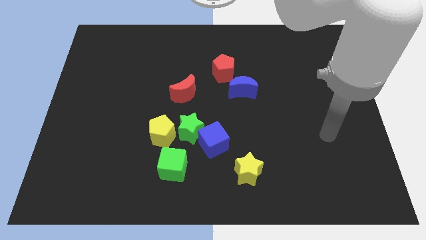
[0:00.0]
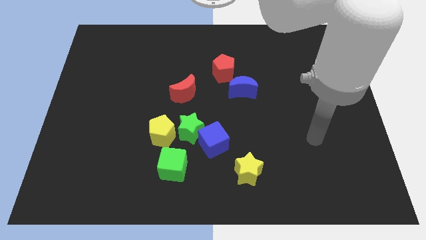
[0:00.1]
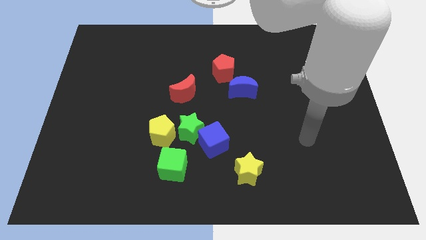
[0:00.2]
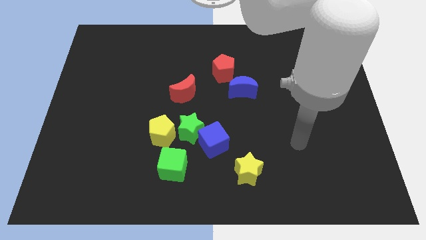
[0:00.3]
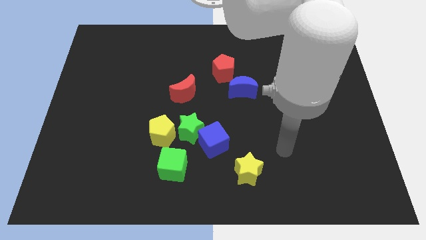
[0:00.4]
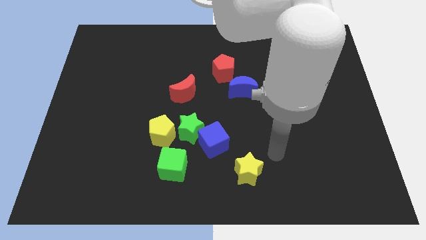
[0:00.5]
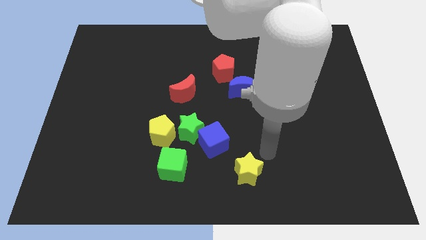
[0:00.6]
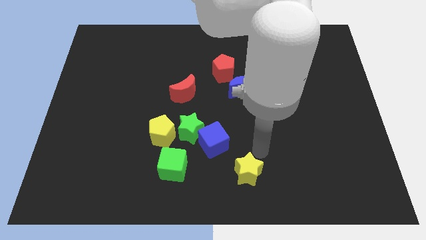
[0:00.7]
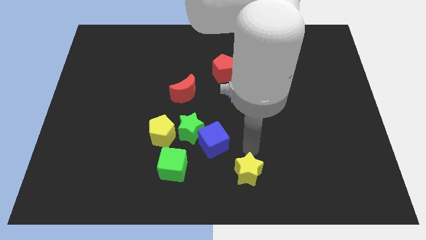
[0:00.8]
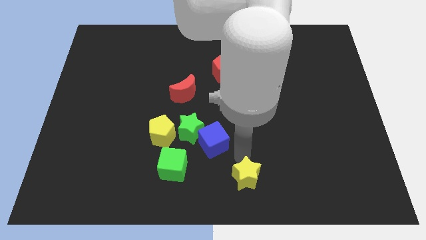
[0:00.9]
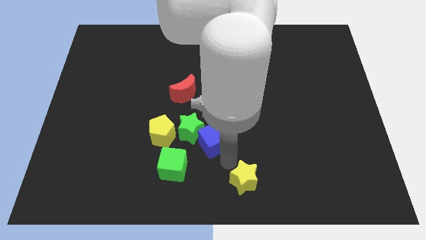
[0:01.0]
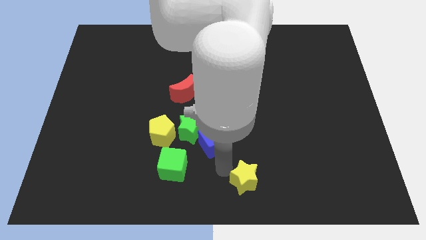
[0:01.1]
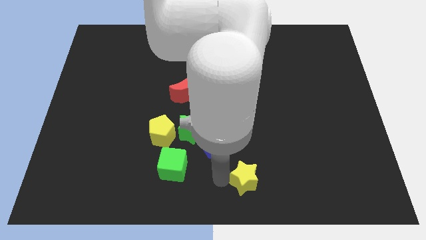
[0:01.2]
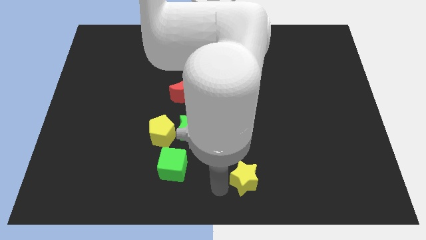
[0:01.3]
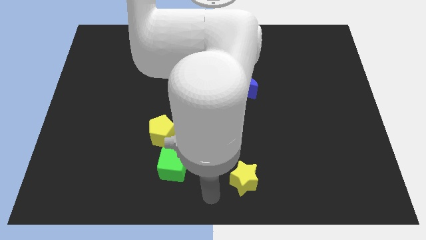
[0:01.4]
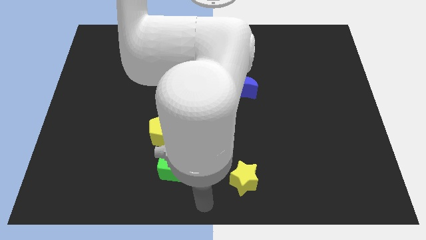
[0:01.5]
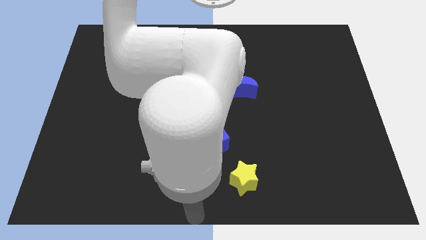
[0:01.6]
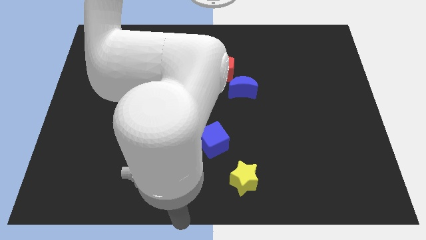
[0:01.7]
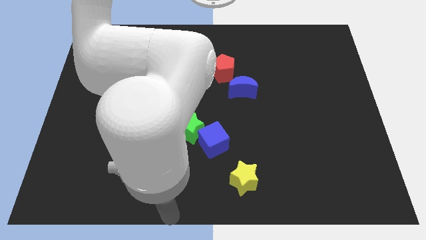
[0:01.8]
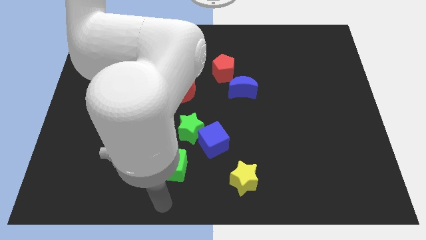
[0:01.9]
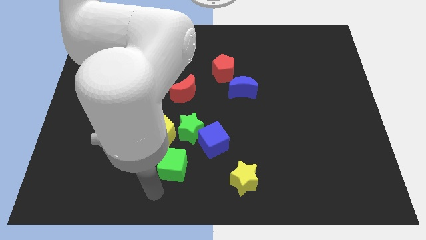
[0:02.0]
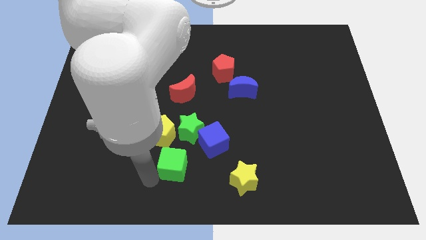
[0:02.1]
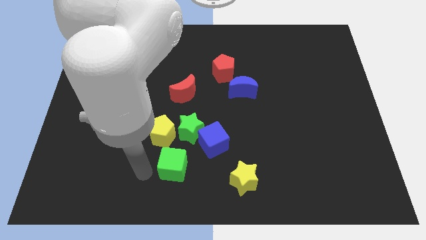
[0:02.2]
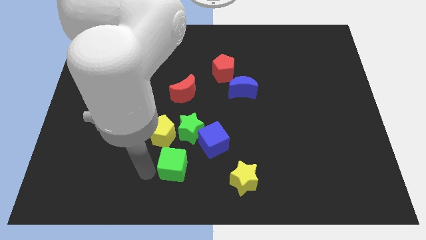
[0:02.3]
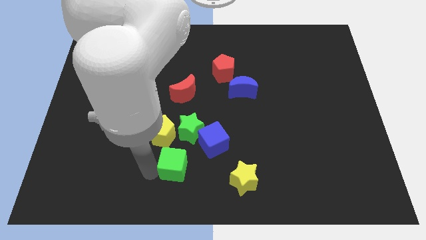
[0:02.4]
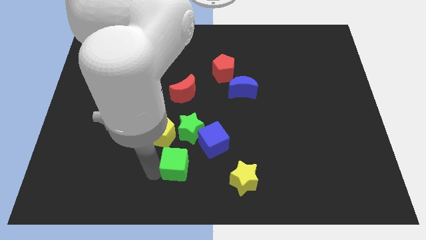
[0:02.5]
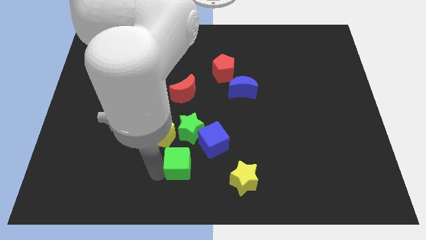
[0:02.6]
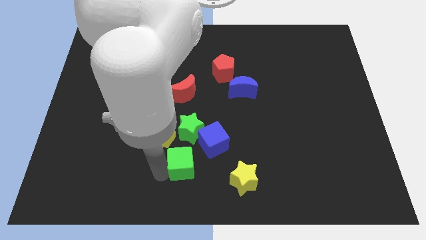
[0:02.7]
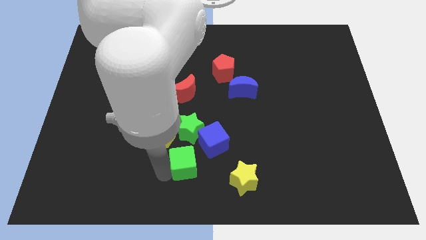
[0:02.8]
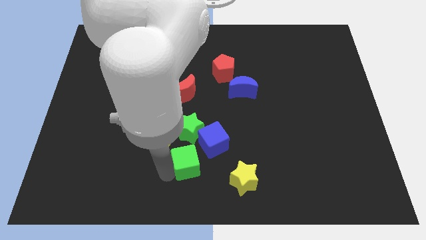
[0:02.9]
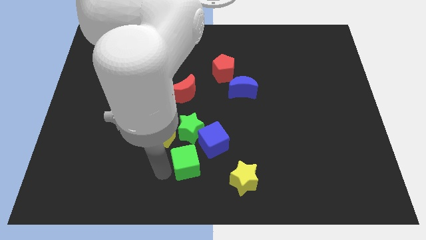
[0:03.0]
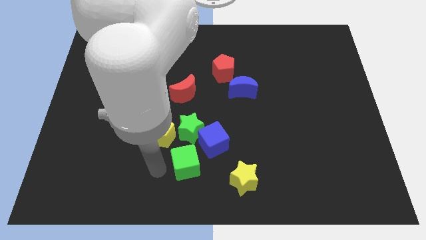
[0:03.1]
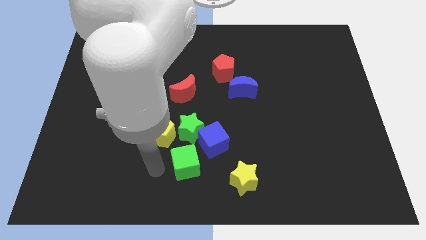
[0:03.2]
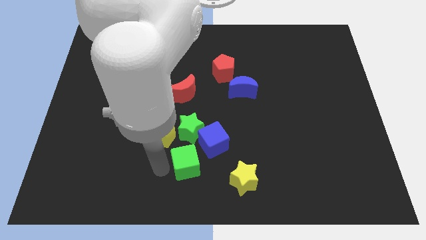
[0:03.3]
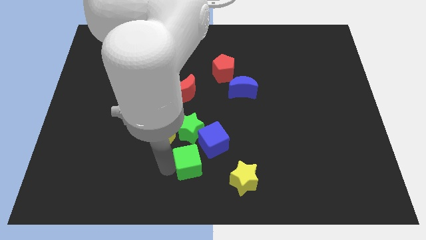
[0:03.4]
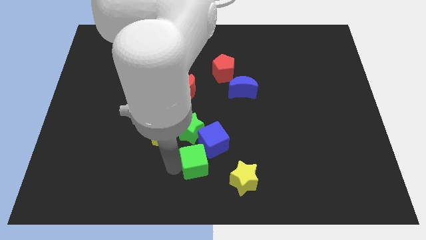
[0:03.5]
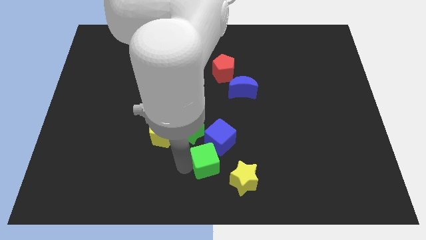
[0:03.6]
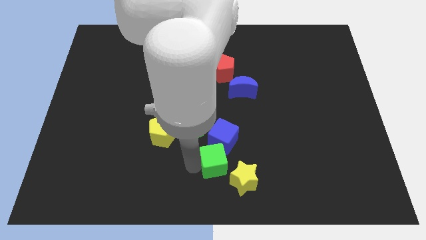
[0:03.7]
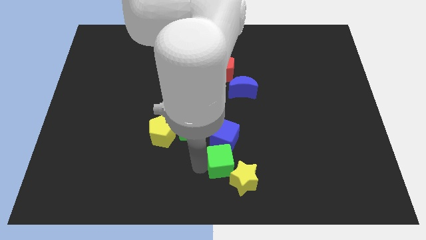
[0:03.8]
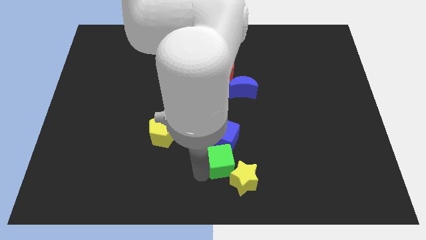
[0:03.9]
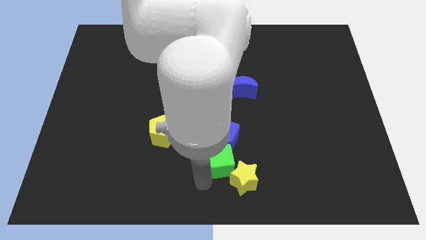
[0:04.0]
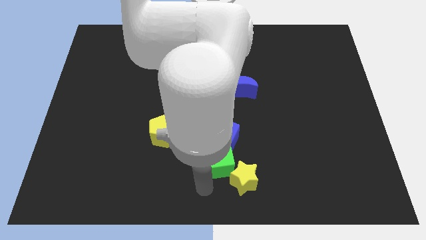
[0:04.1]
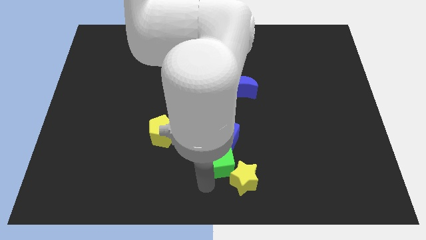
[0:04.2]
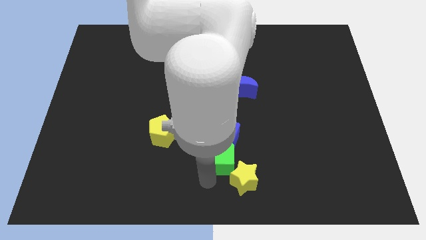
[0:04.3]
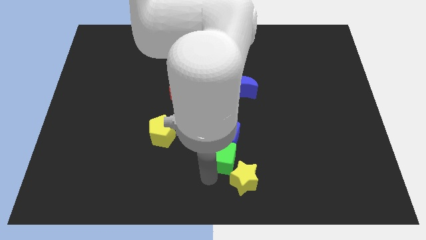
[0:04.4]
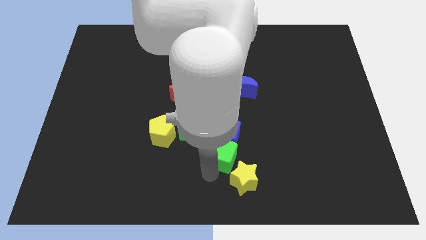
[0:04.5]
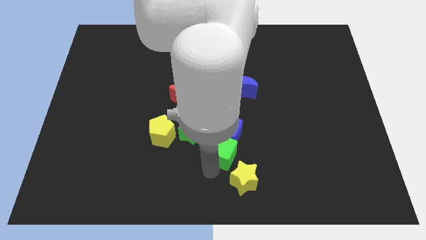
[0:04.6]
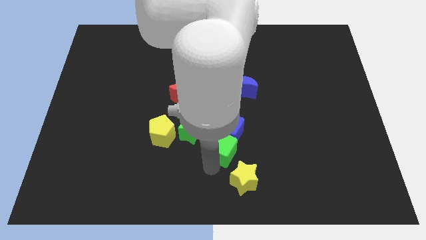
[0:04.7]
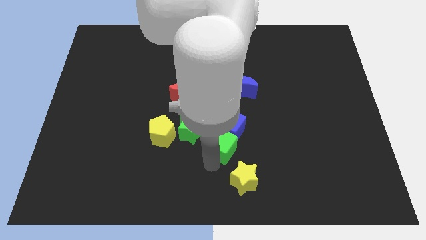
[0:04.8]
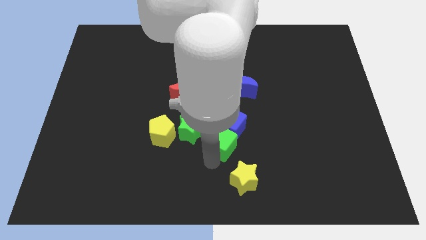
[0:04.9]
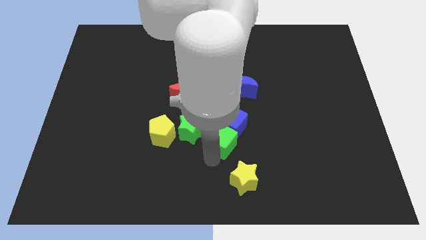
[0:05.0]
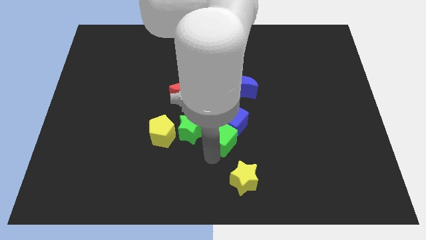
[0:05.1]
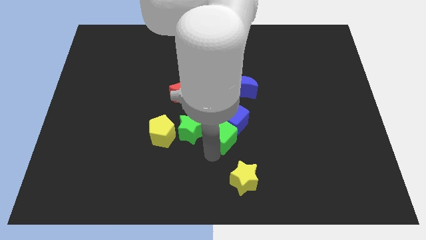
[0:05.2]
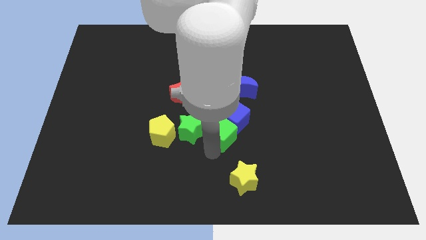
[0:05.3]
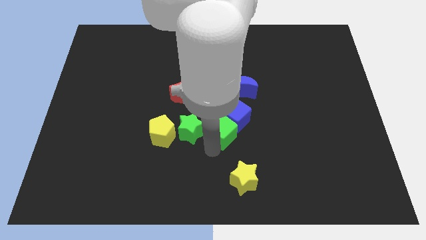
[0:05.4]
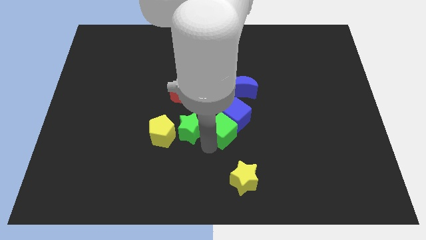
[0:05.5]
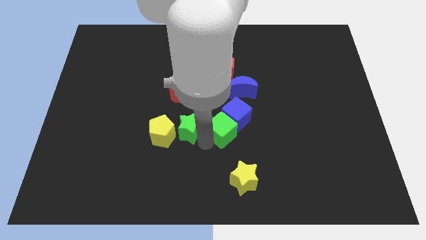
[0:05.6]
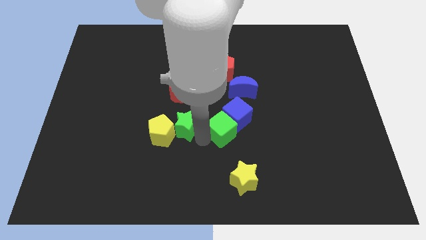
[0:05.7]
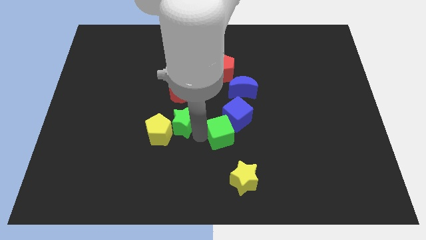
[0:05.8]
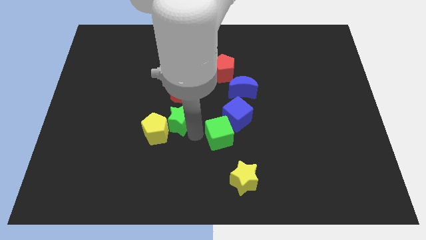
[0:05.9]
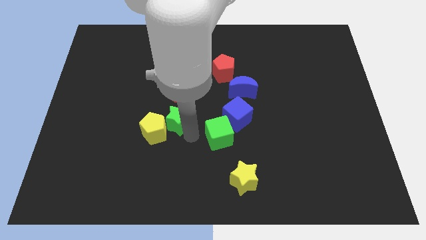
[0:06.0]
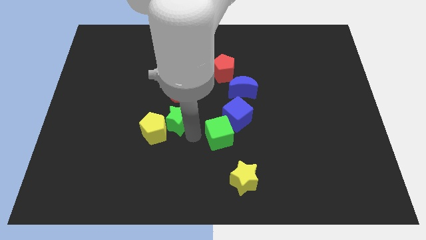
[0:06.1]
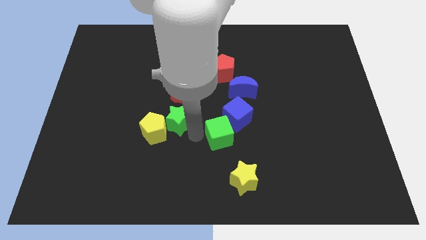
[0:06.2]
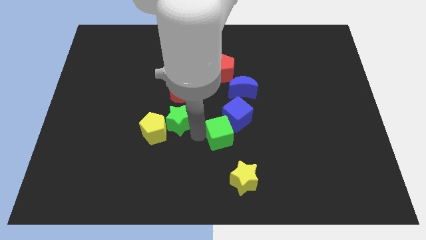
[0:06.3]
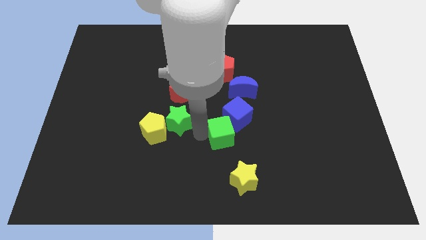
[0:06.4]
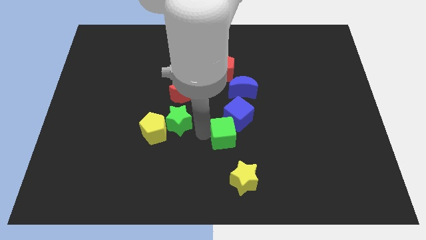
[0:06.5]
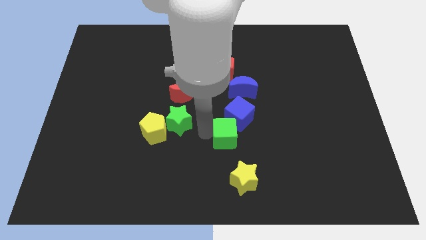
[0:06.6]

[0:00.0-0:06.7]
push the green cube to the bottom side of the blue moon
